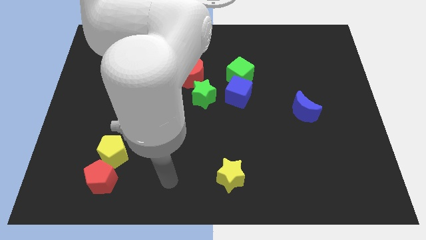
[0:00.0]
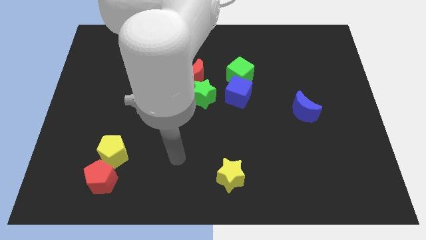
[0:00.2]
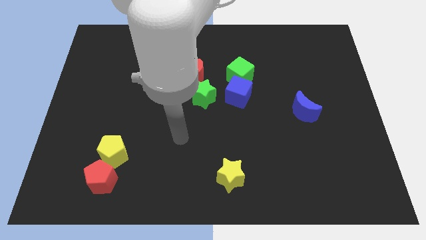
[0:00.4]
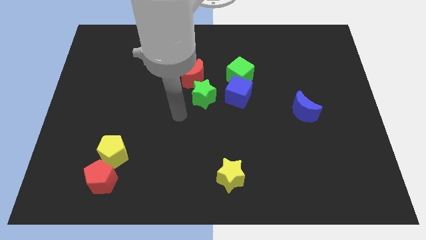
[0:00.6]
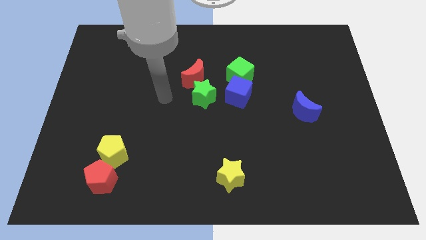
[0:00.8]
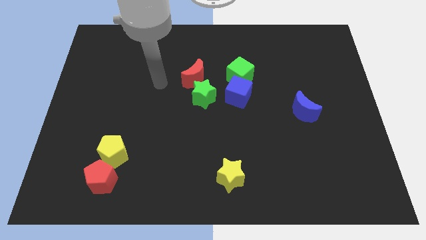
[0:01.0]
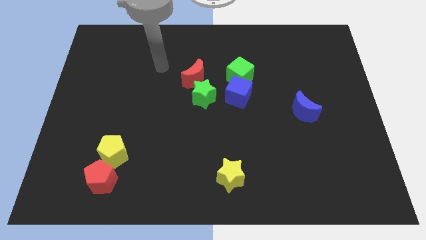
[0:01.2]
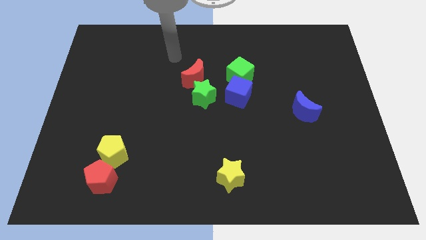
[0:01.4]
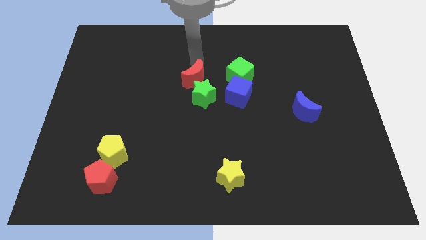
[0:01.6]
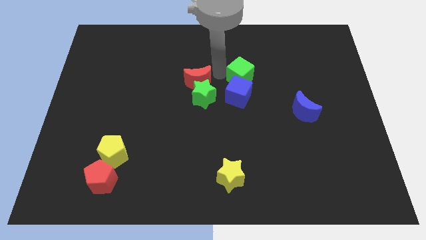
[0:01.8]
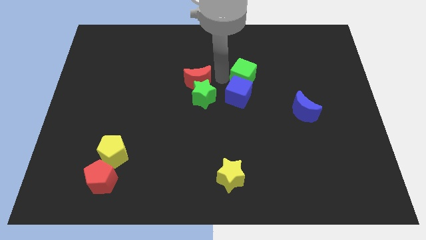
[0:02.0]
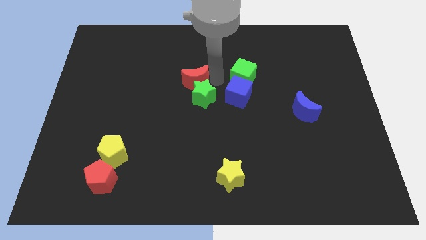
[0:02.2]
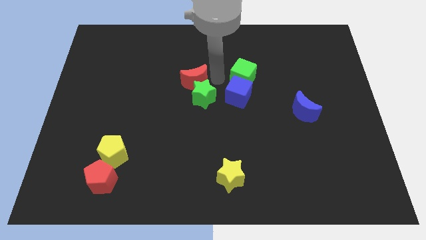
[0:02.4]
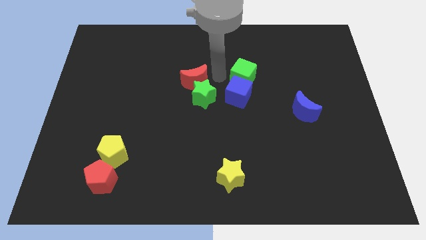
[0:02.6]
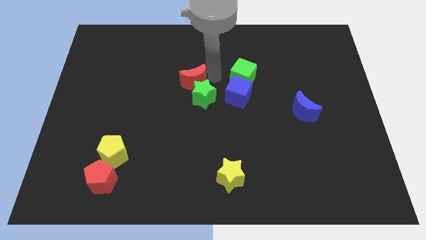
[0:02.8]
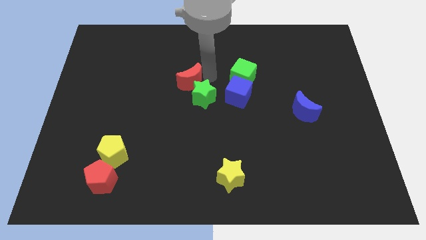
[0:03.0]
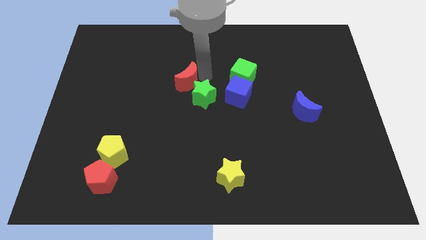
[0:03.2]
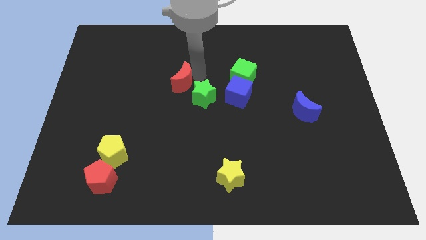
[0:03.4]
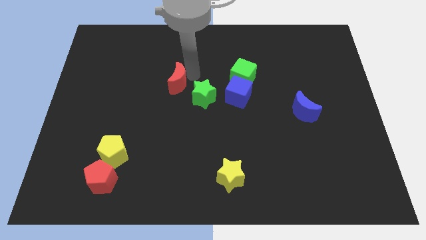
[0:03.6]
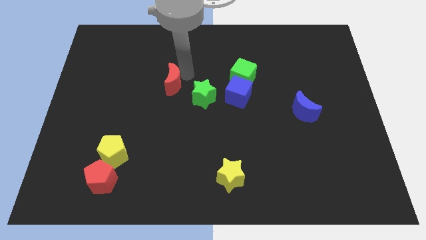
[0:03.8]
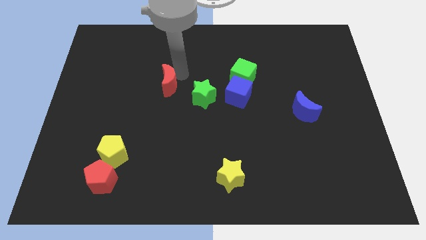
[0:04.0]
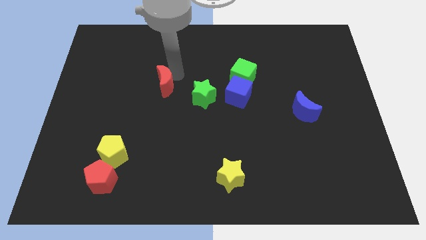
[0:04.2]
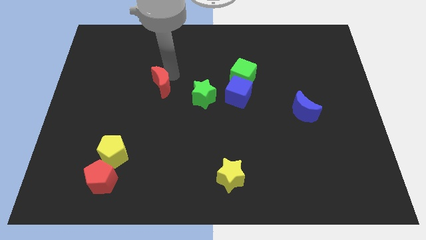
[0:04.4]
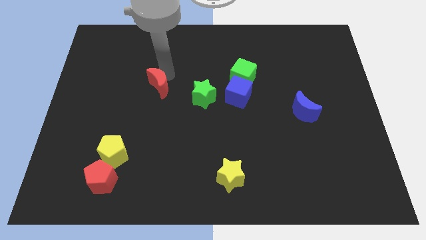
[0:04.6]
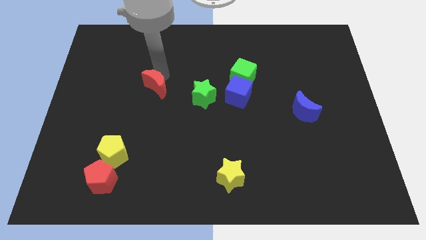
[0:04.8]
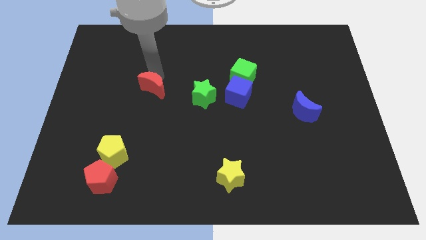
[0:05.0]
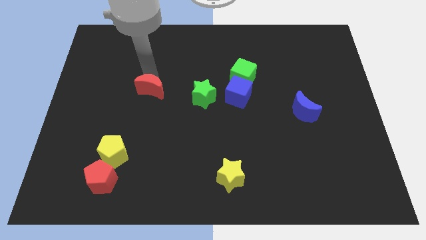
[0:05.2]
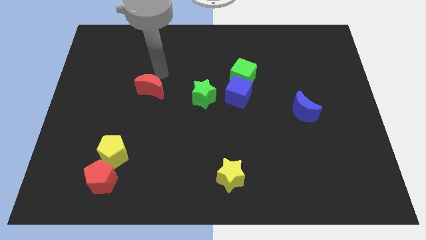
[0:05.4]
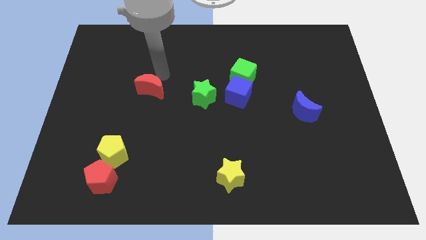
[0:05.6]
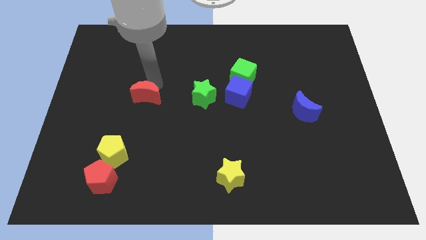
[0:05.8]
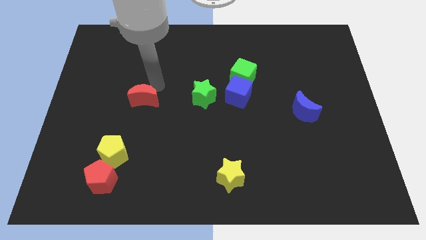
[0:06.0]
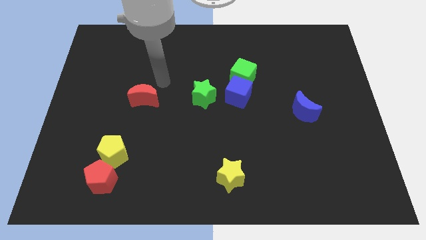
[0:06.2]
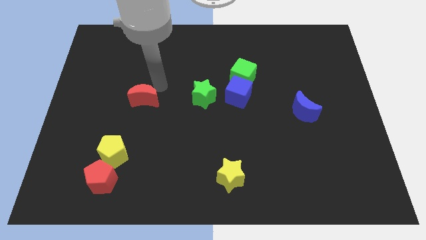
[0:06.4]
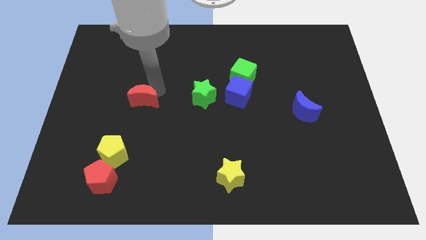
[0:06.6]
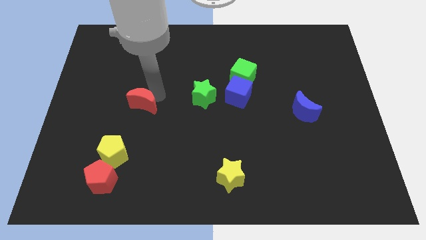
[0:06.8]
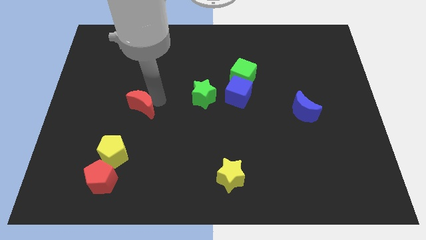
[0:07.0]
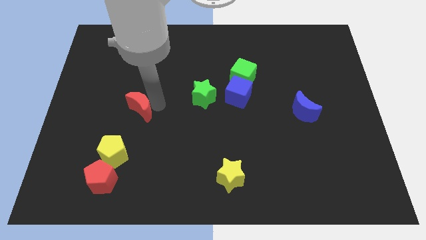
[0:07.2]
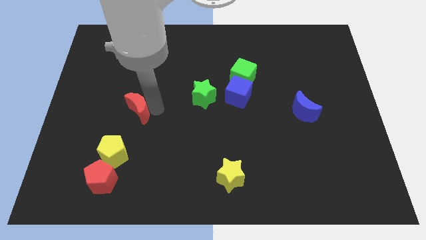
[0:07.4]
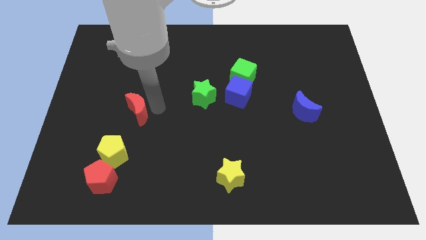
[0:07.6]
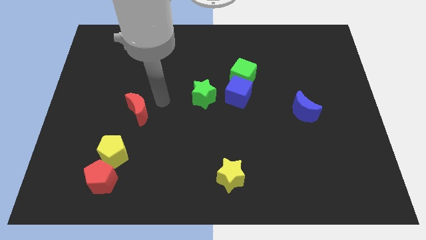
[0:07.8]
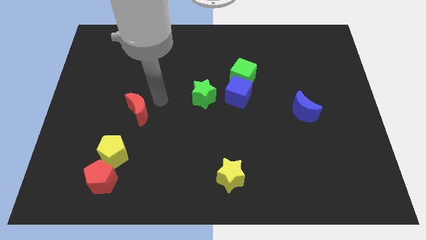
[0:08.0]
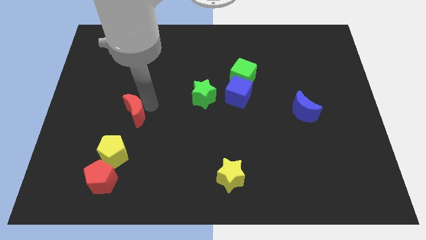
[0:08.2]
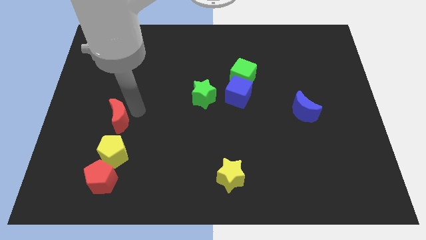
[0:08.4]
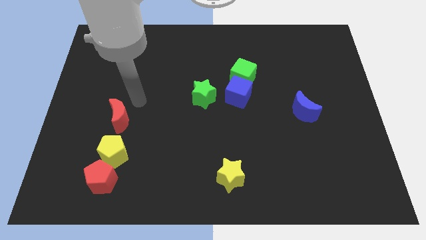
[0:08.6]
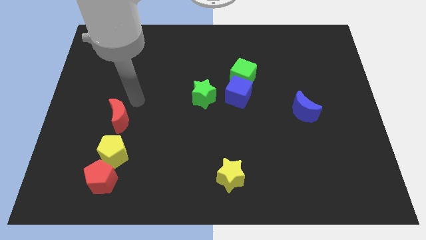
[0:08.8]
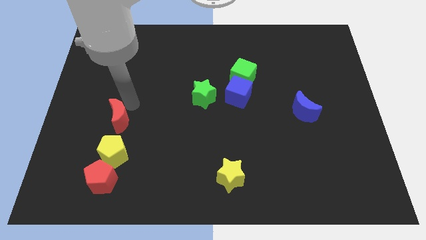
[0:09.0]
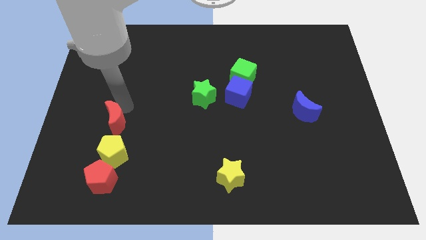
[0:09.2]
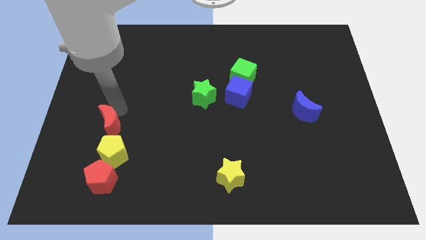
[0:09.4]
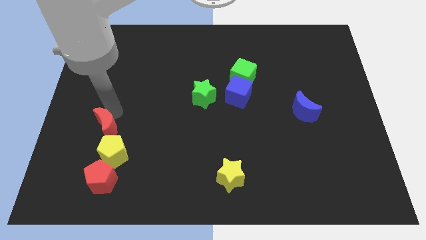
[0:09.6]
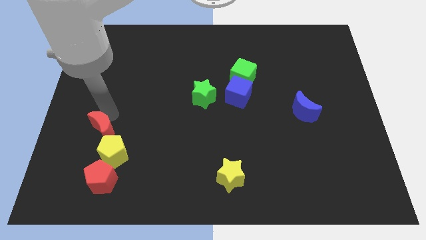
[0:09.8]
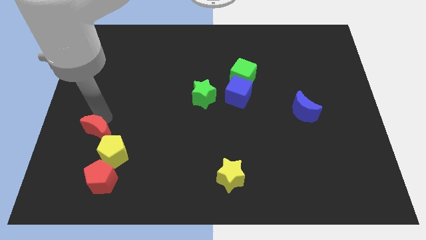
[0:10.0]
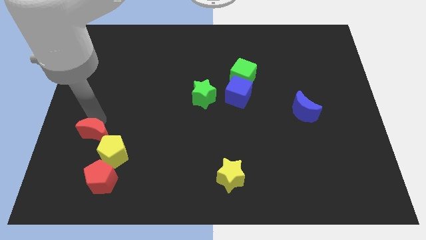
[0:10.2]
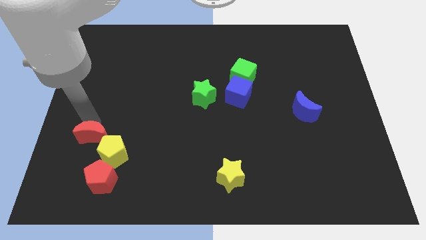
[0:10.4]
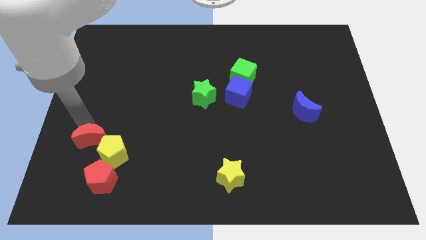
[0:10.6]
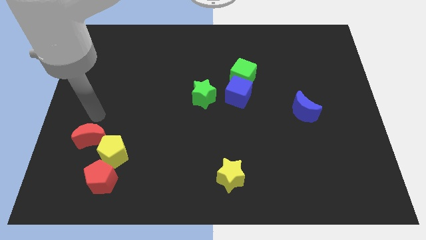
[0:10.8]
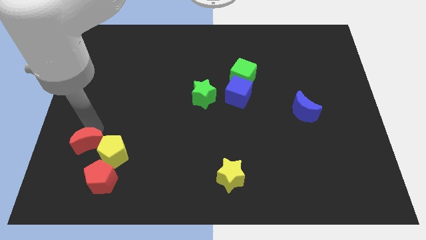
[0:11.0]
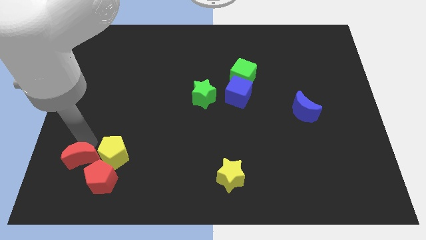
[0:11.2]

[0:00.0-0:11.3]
slide the red moon to the bottom left of the yellow pentagon

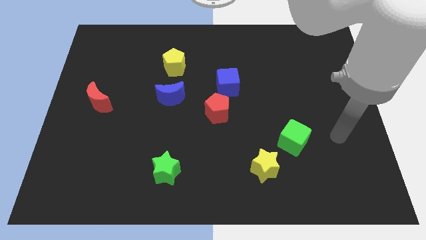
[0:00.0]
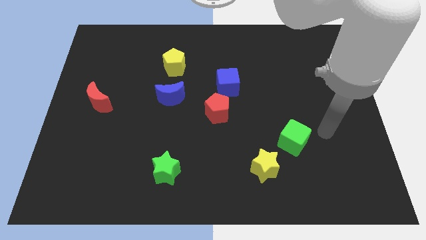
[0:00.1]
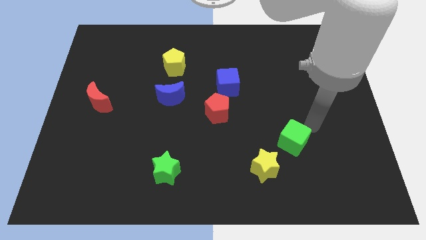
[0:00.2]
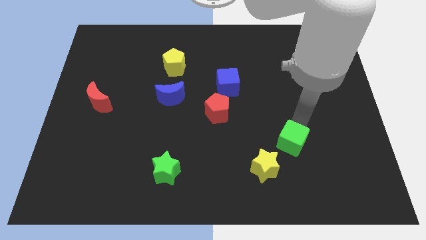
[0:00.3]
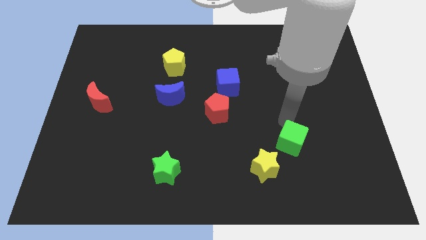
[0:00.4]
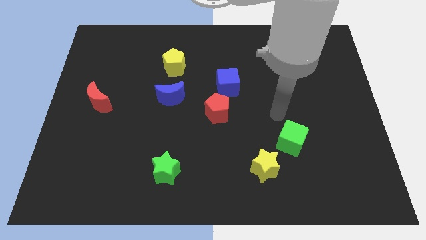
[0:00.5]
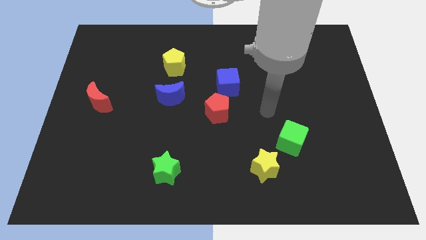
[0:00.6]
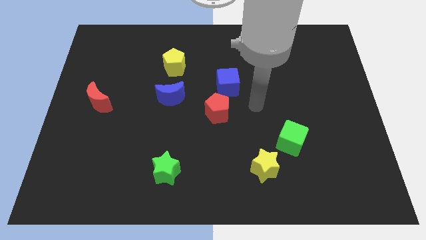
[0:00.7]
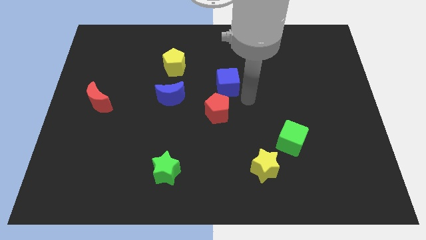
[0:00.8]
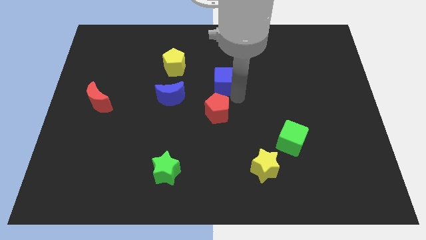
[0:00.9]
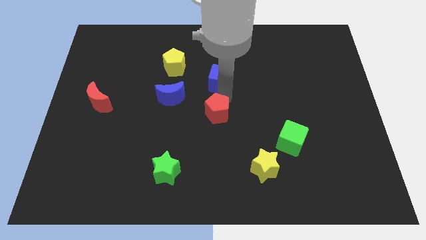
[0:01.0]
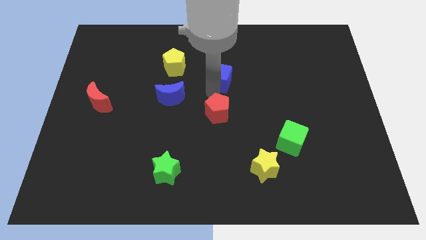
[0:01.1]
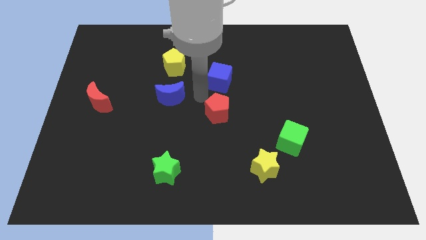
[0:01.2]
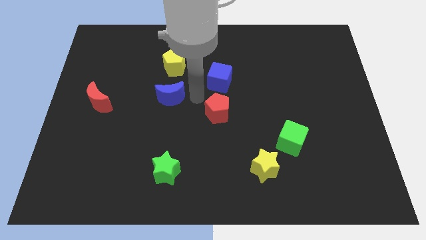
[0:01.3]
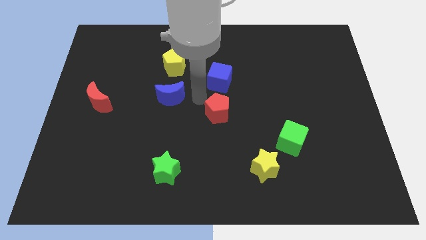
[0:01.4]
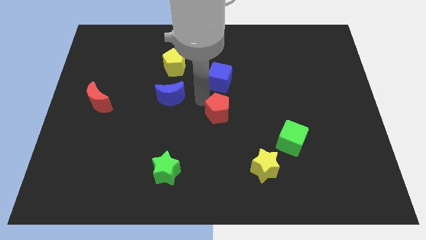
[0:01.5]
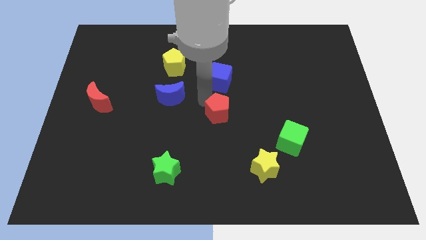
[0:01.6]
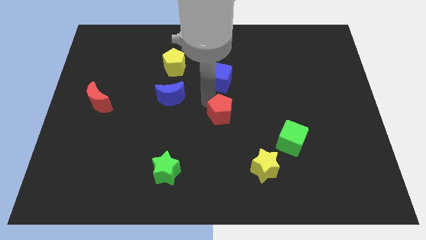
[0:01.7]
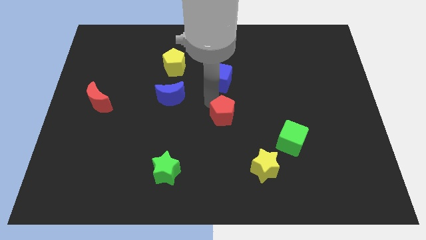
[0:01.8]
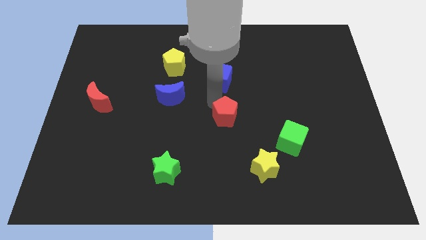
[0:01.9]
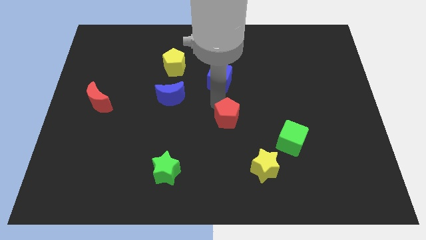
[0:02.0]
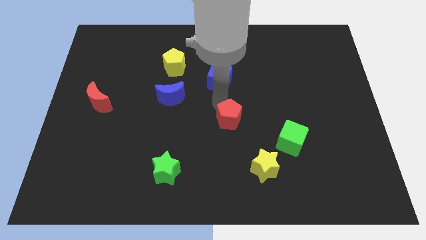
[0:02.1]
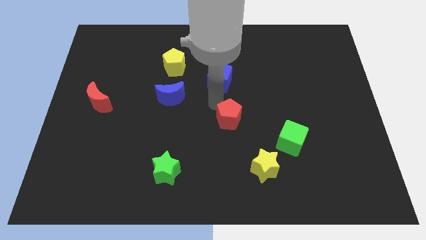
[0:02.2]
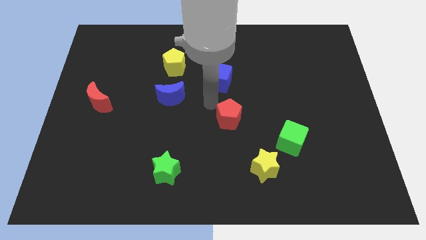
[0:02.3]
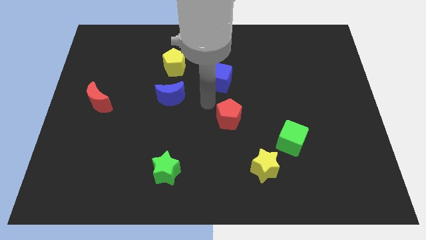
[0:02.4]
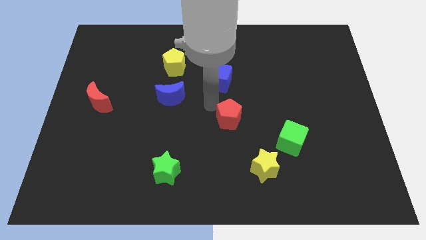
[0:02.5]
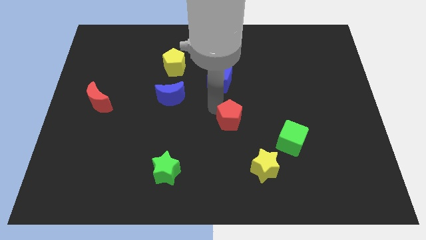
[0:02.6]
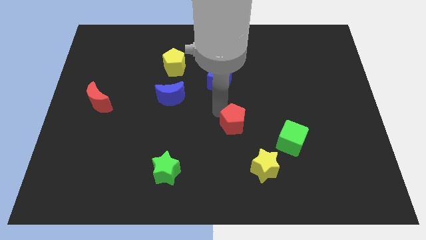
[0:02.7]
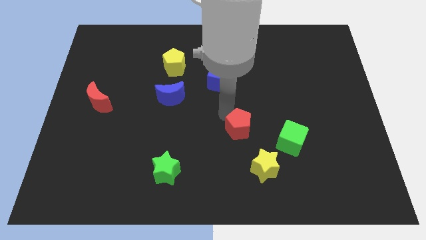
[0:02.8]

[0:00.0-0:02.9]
push the red pentagon left of the green cube

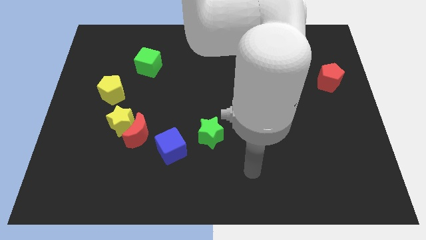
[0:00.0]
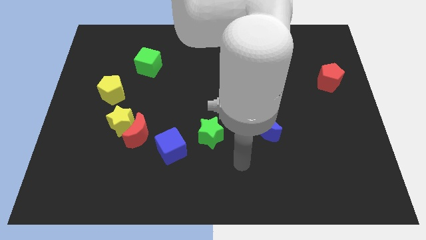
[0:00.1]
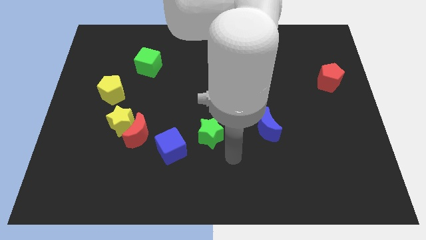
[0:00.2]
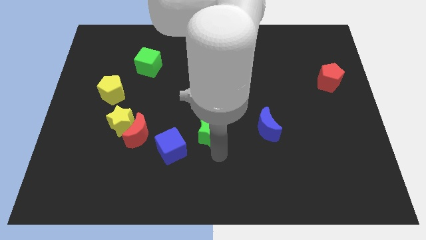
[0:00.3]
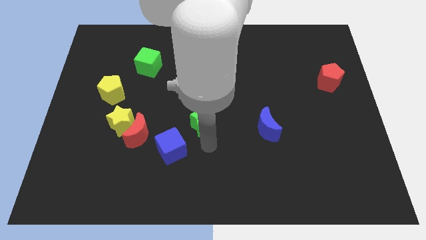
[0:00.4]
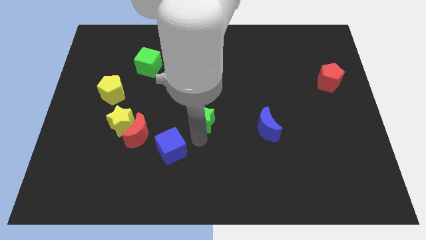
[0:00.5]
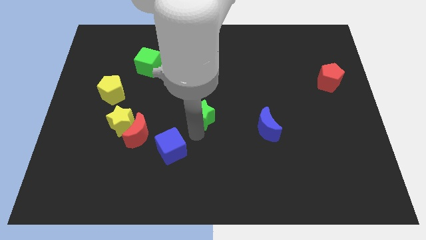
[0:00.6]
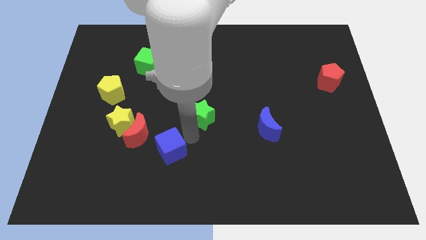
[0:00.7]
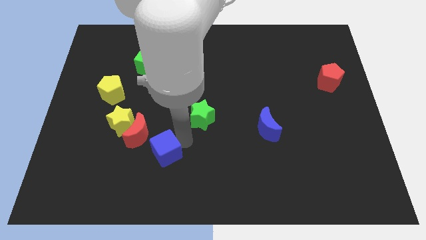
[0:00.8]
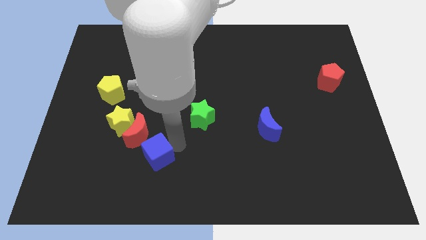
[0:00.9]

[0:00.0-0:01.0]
move the blue cube to the bottom of the red moon
